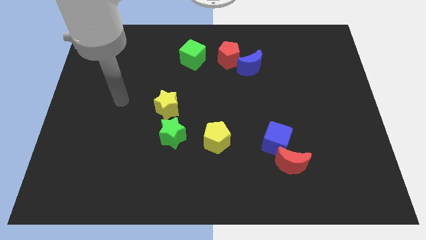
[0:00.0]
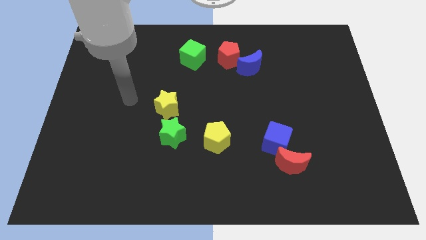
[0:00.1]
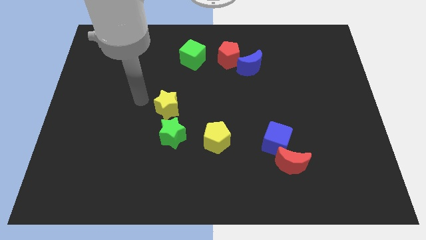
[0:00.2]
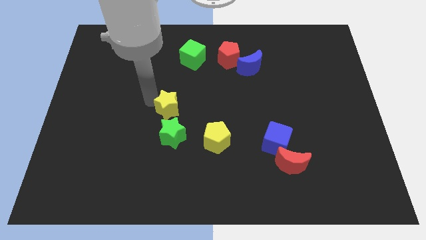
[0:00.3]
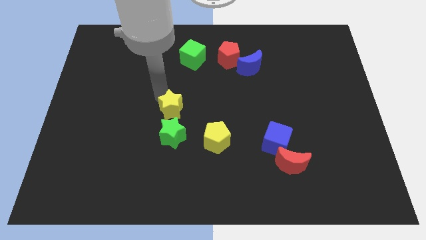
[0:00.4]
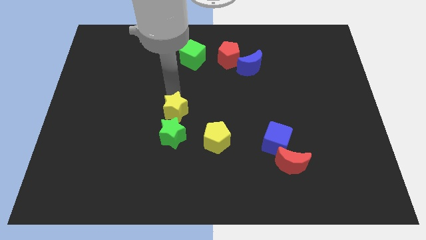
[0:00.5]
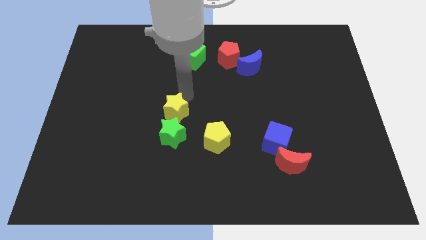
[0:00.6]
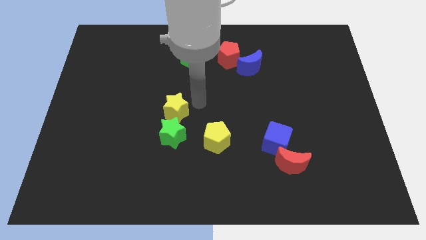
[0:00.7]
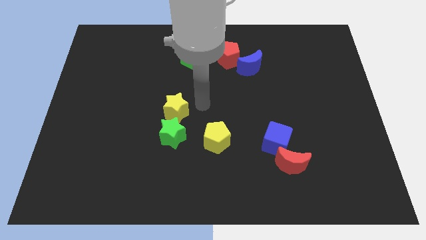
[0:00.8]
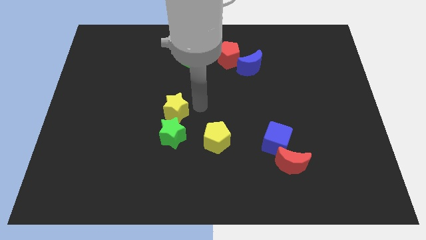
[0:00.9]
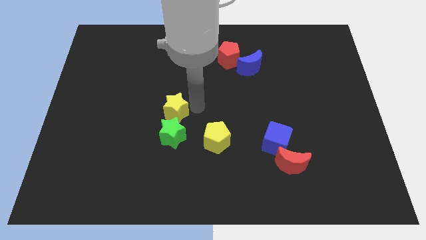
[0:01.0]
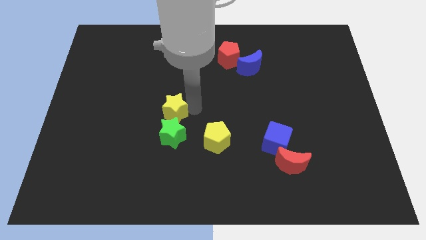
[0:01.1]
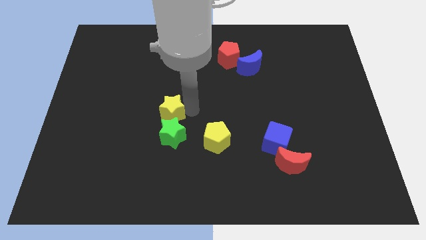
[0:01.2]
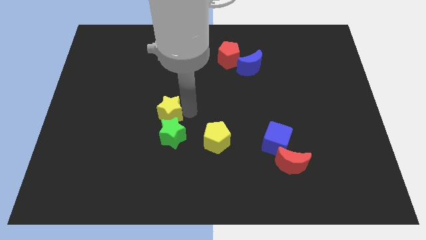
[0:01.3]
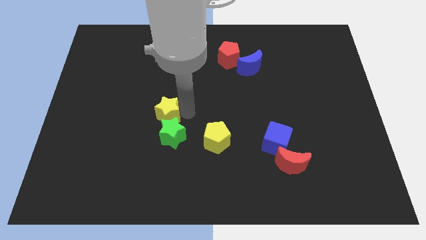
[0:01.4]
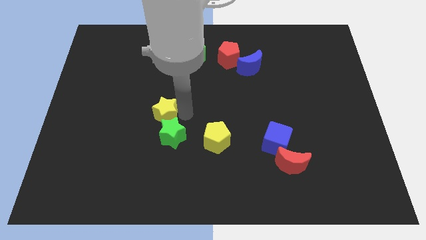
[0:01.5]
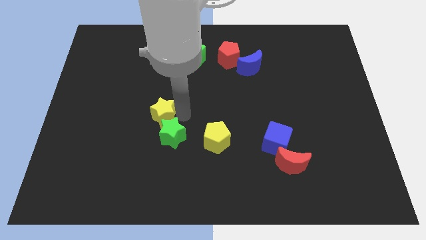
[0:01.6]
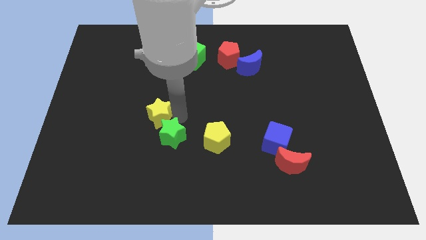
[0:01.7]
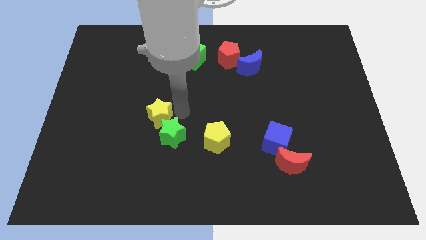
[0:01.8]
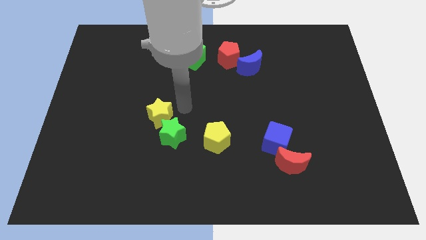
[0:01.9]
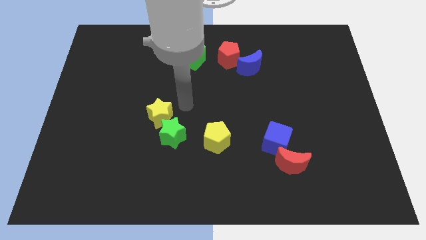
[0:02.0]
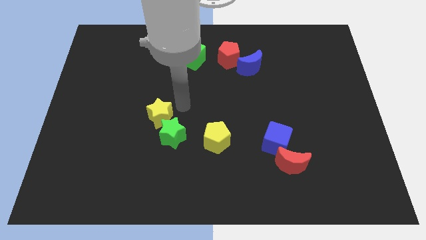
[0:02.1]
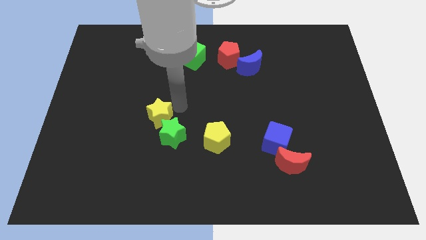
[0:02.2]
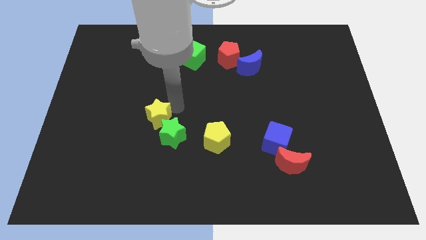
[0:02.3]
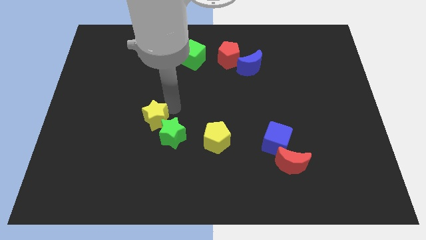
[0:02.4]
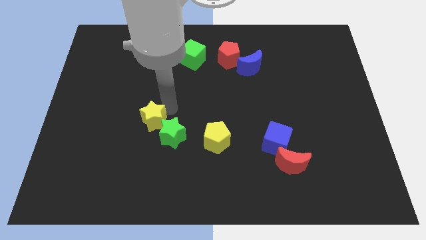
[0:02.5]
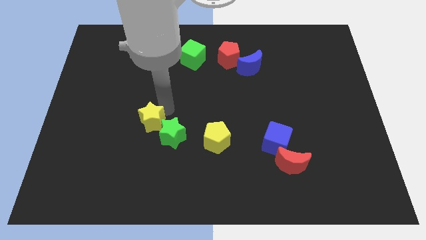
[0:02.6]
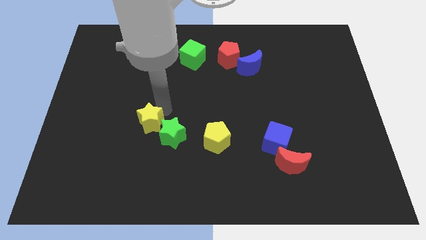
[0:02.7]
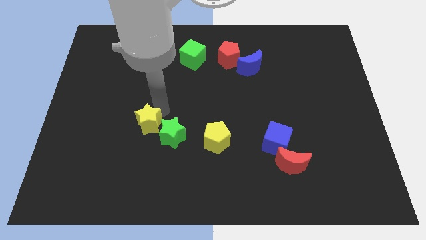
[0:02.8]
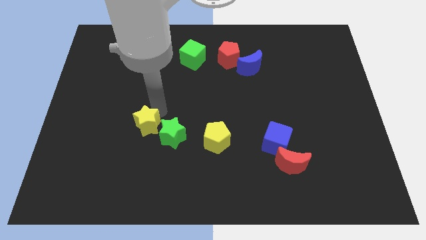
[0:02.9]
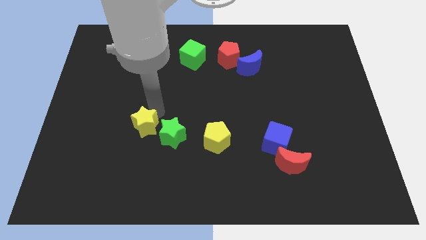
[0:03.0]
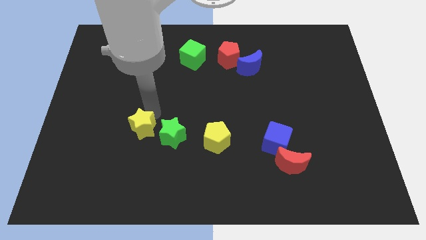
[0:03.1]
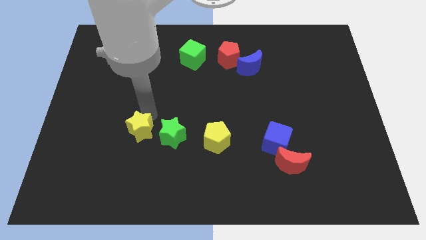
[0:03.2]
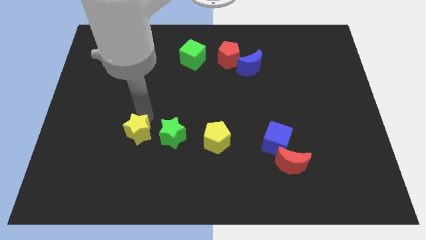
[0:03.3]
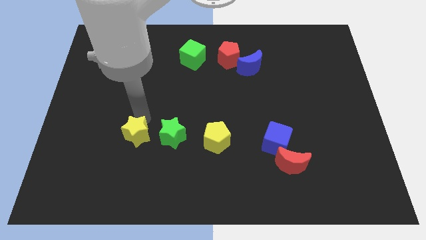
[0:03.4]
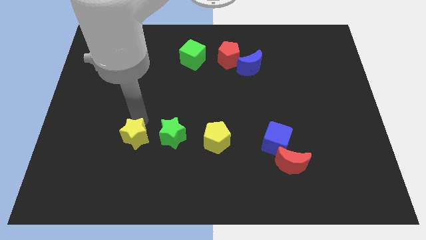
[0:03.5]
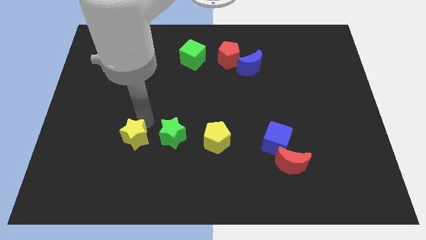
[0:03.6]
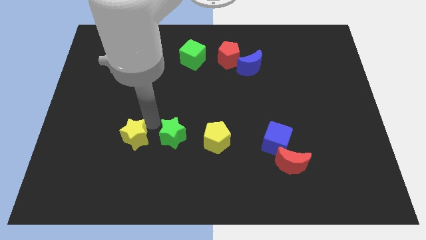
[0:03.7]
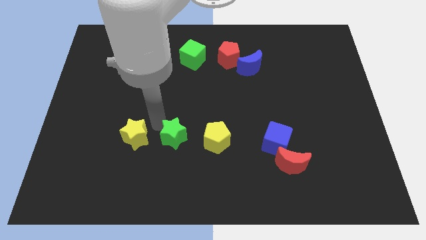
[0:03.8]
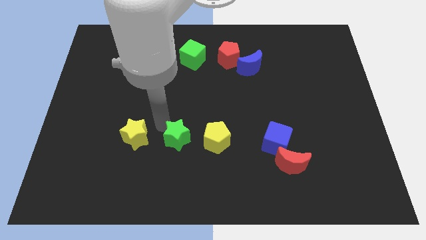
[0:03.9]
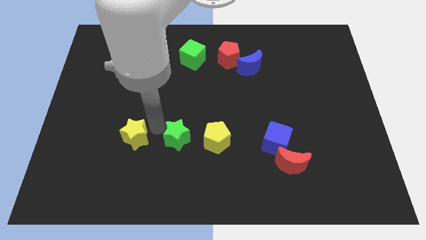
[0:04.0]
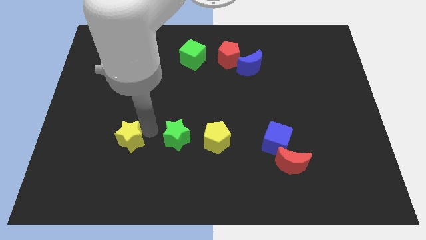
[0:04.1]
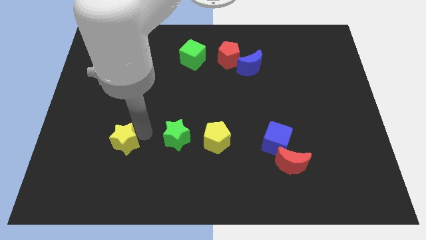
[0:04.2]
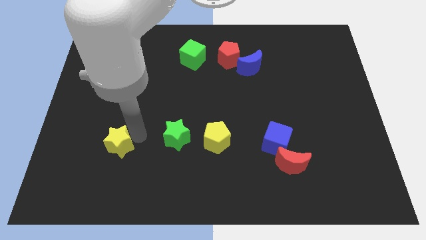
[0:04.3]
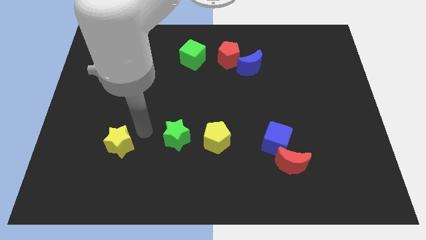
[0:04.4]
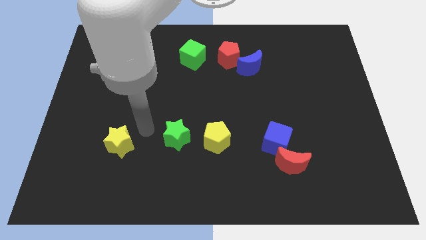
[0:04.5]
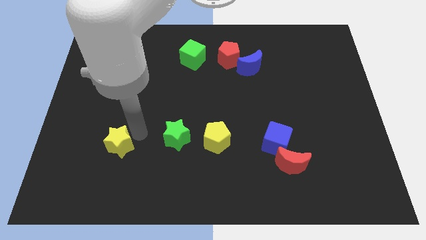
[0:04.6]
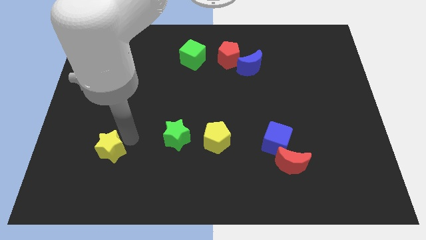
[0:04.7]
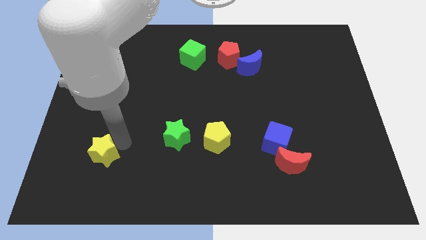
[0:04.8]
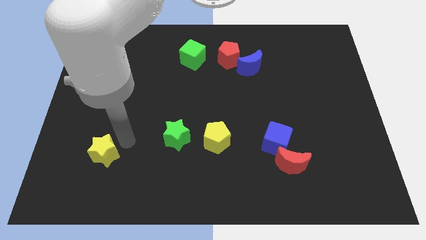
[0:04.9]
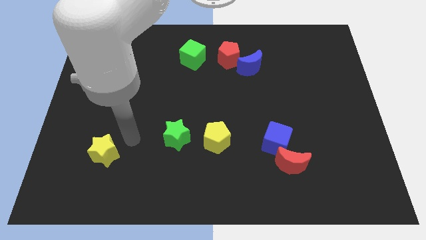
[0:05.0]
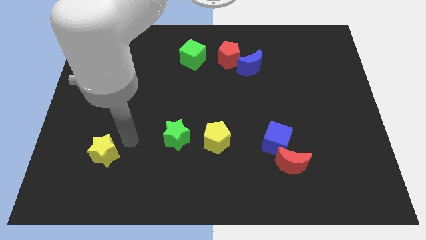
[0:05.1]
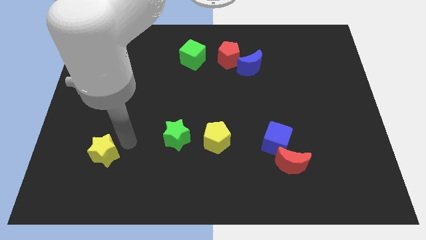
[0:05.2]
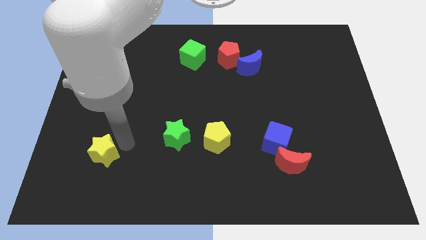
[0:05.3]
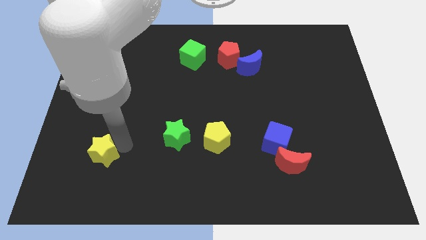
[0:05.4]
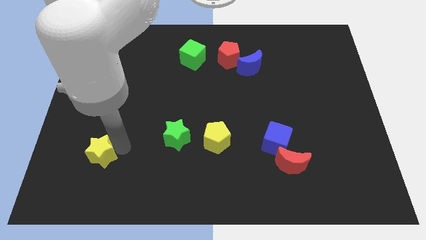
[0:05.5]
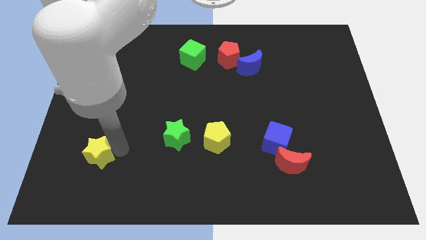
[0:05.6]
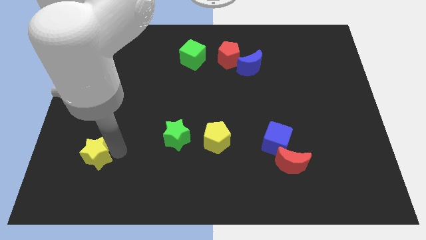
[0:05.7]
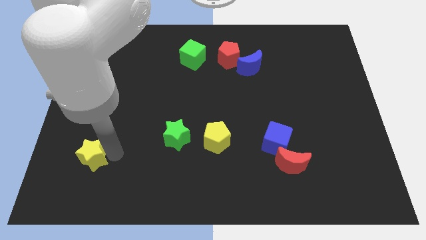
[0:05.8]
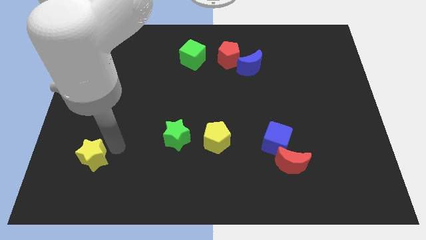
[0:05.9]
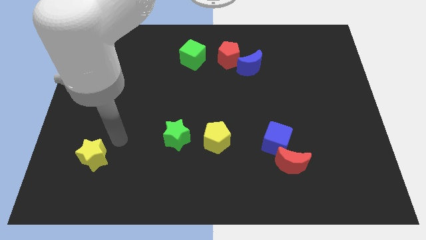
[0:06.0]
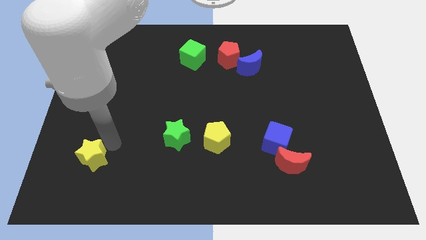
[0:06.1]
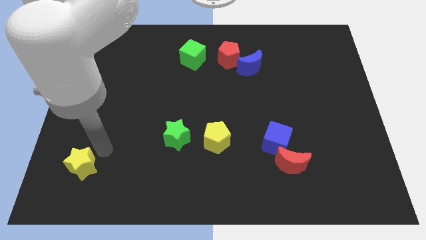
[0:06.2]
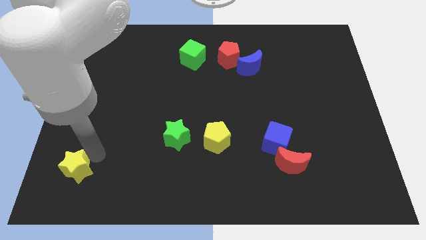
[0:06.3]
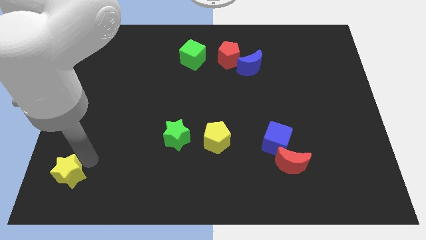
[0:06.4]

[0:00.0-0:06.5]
move the yellow star to the bottom left corner
